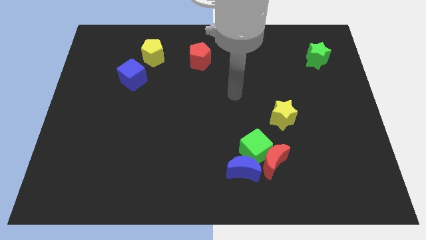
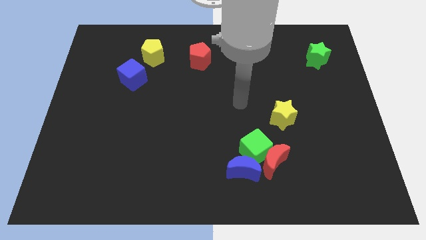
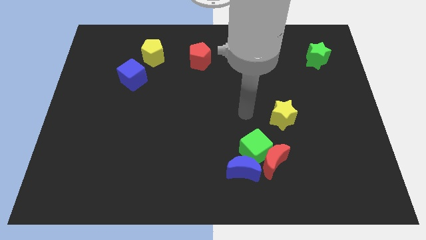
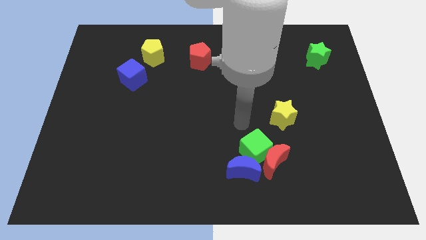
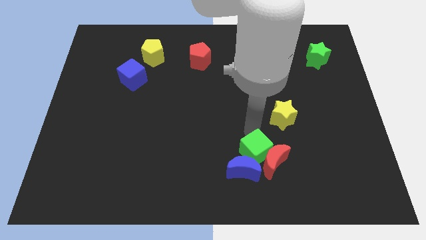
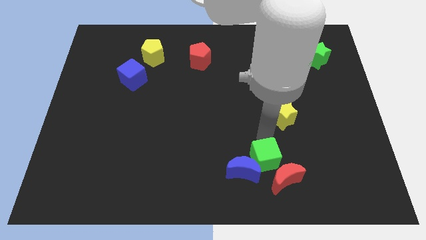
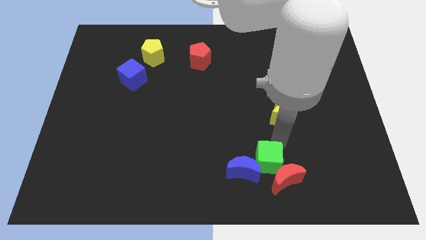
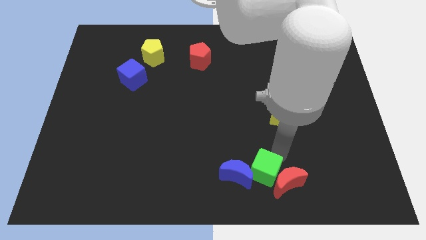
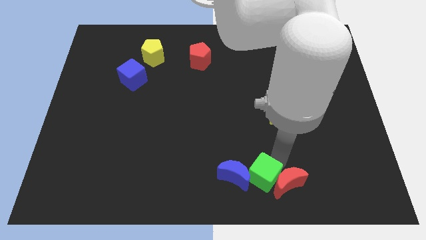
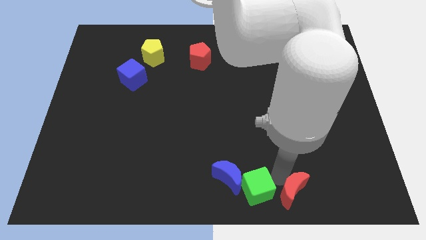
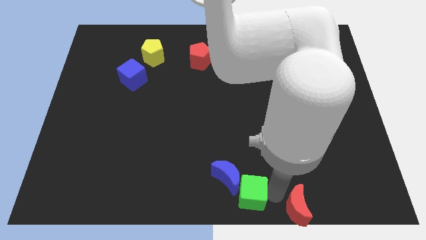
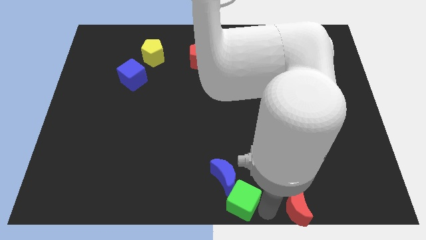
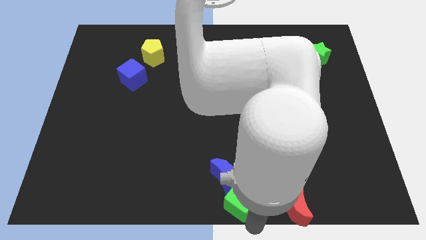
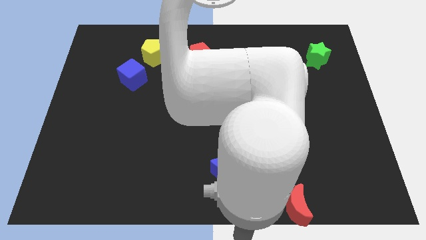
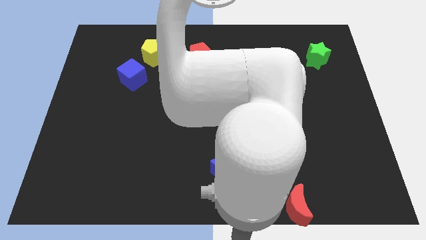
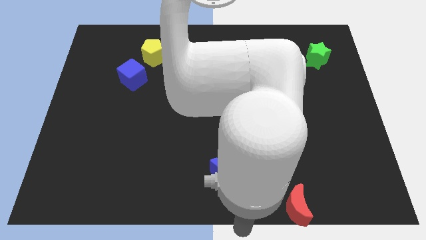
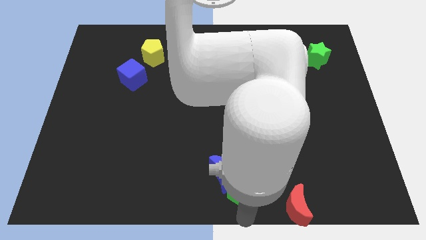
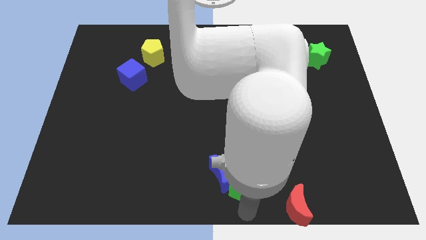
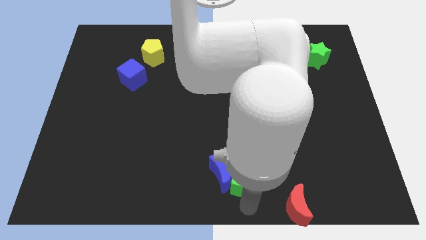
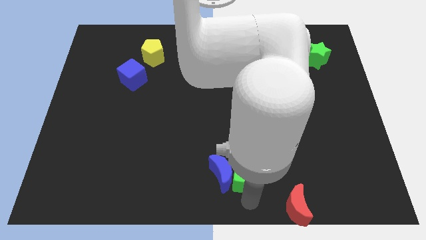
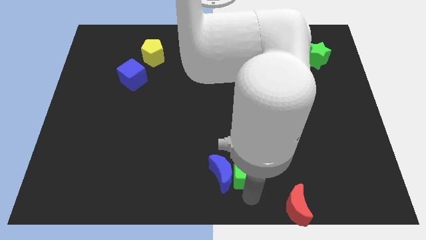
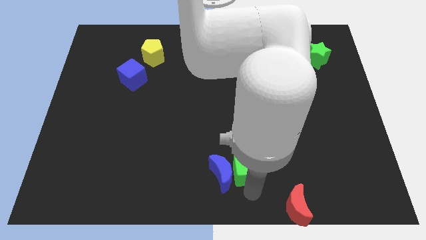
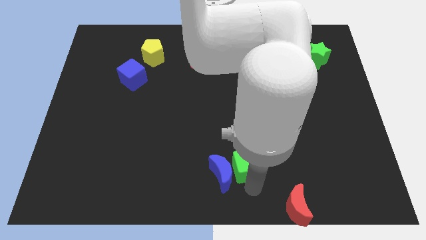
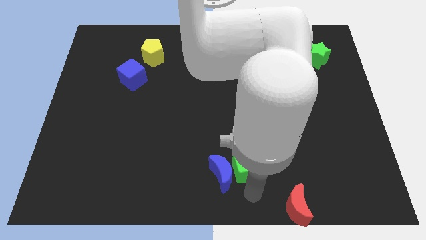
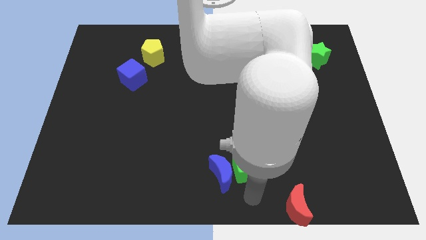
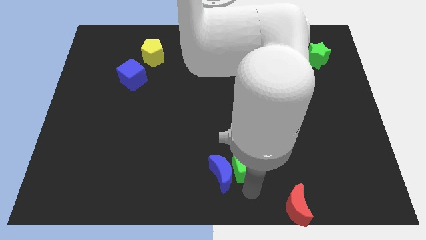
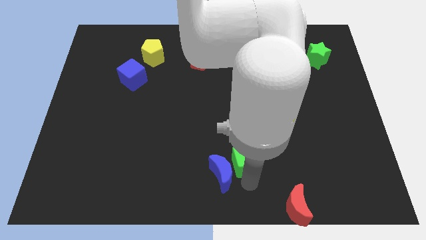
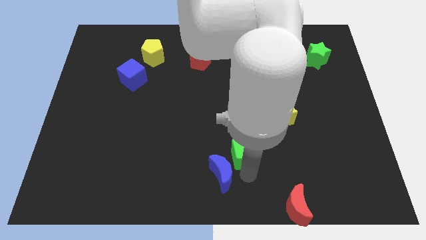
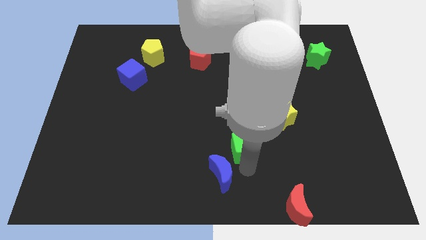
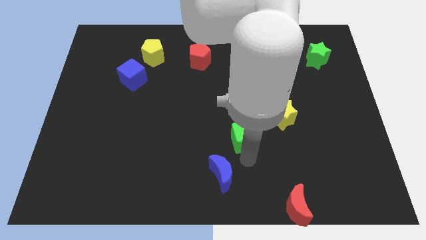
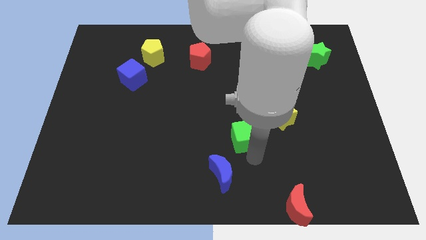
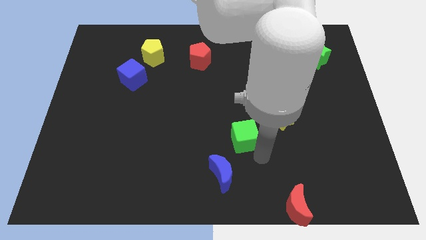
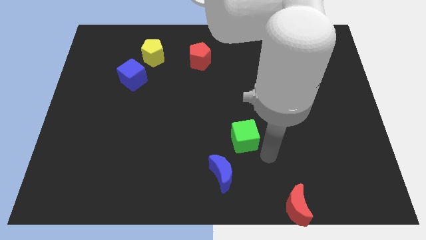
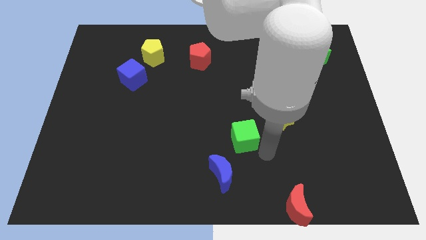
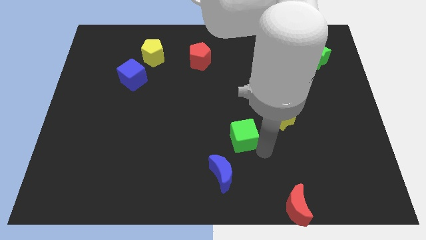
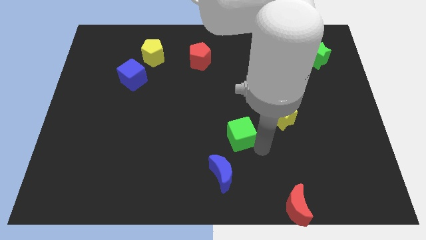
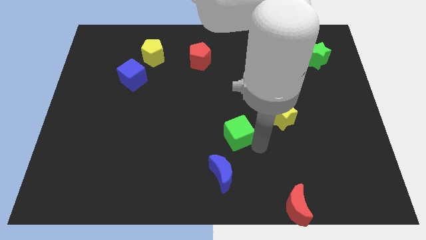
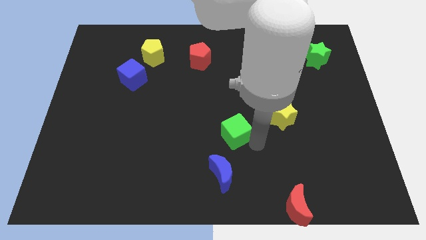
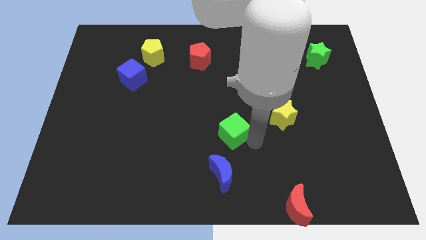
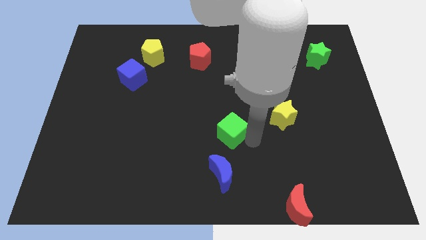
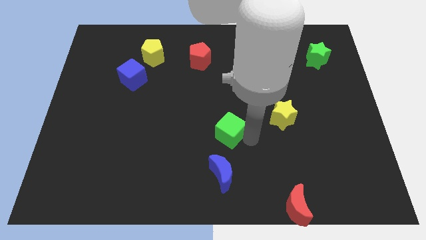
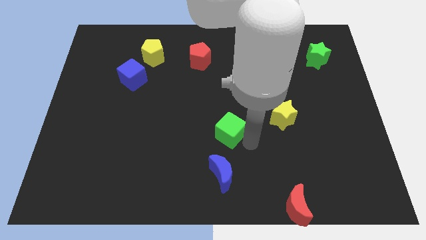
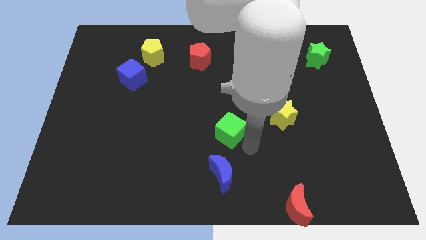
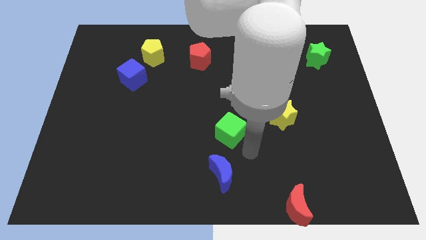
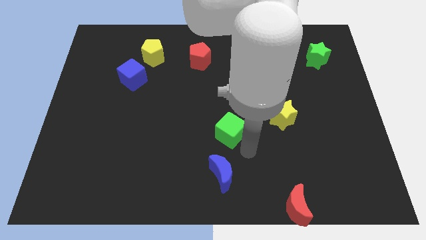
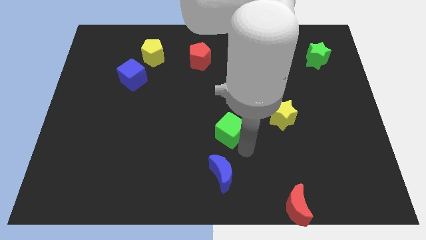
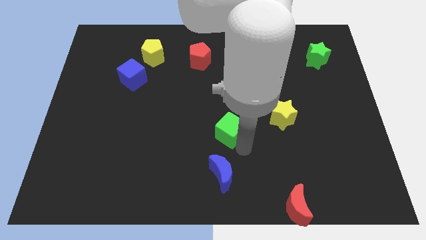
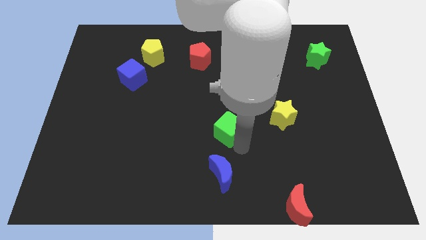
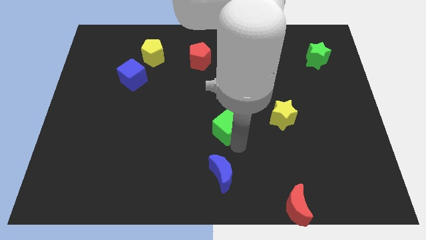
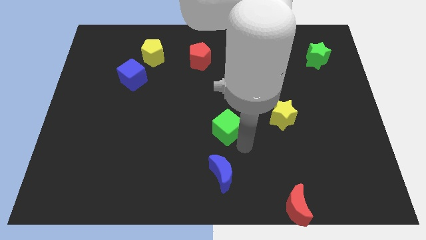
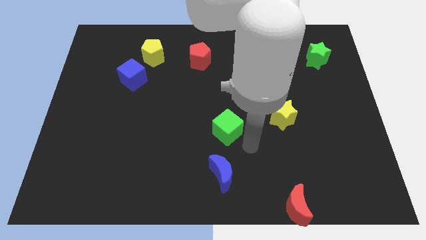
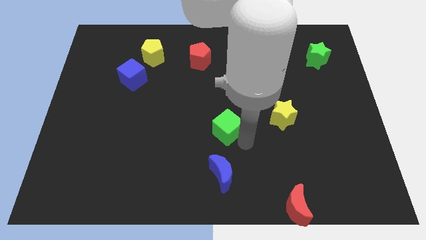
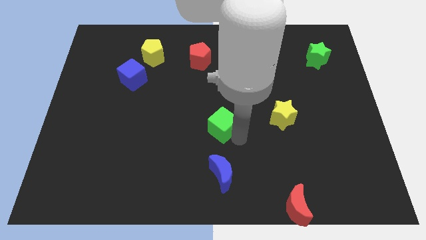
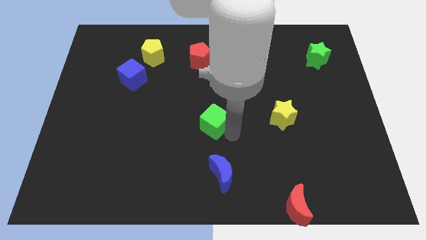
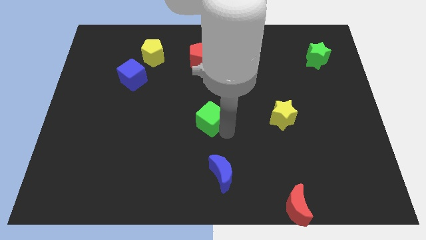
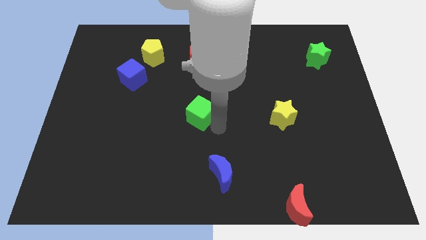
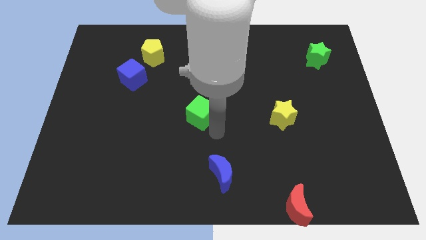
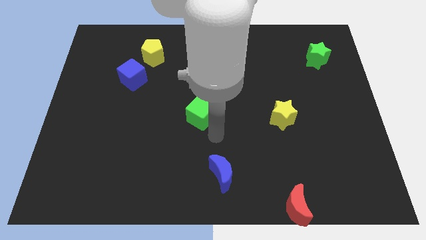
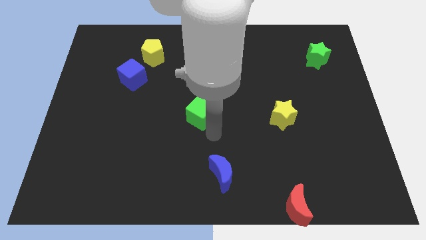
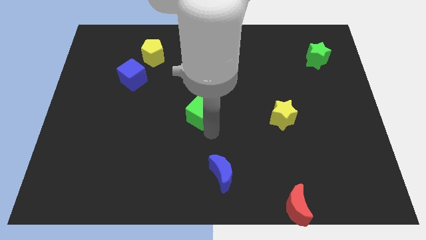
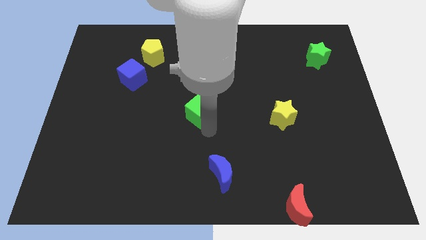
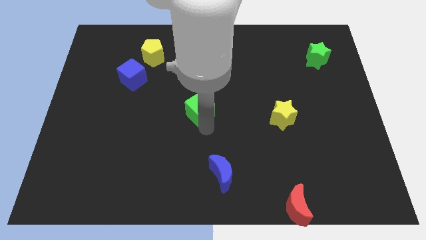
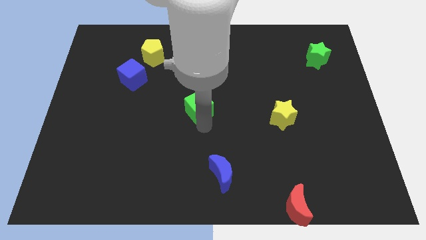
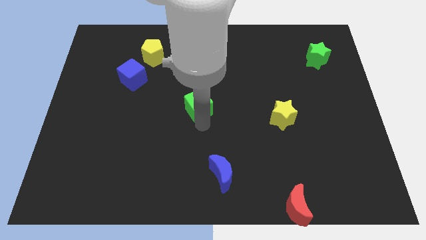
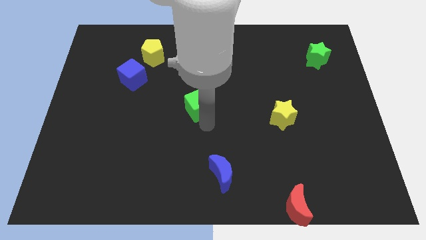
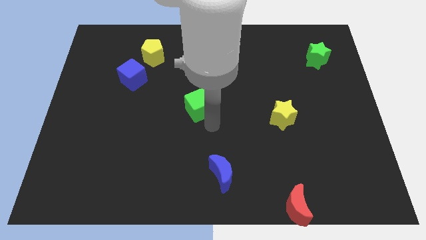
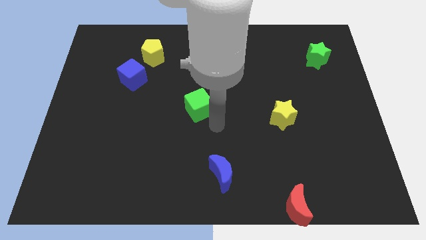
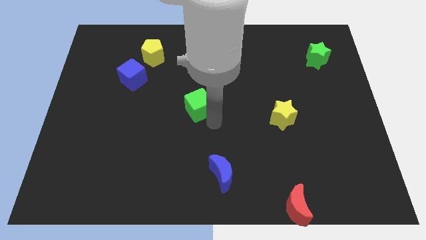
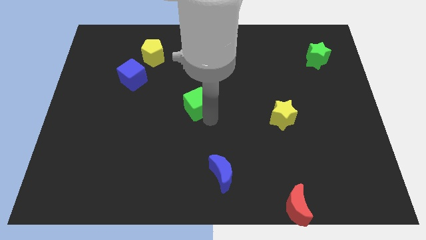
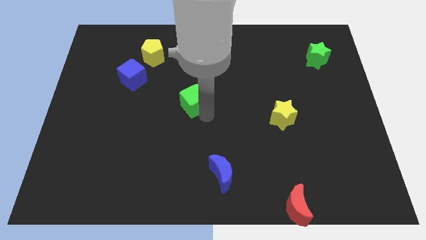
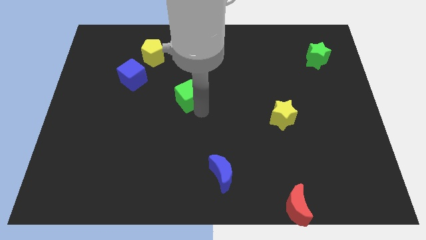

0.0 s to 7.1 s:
slide the green cube upwards and to the left diagonally

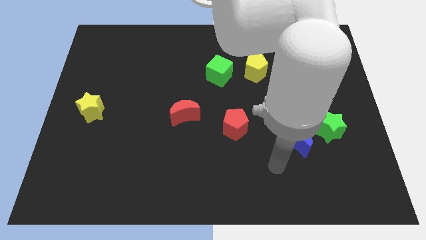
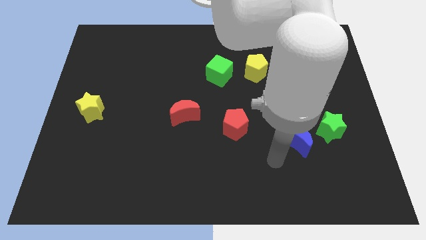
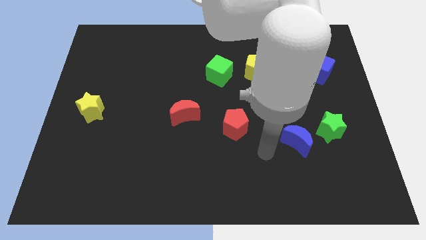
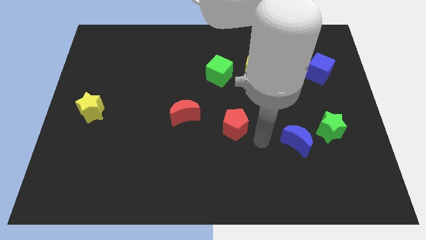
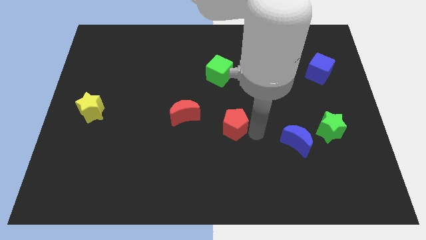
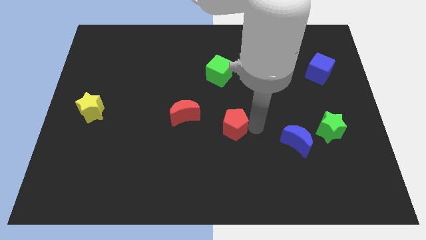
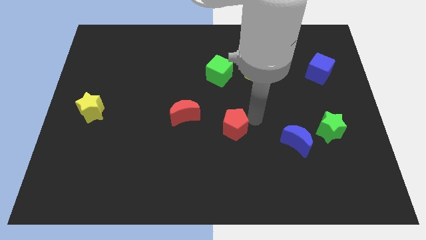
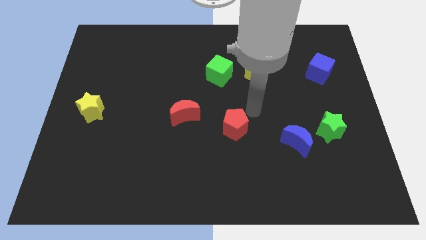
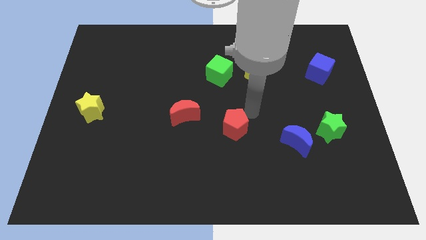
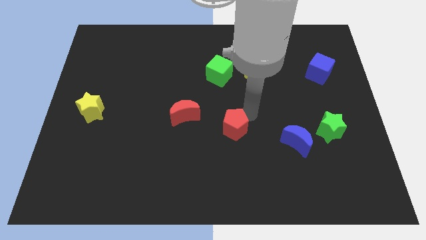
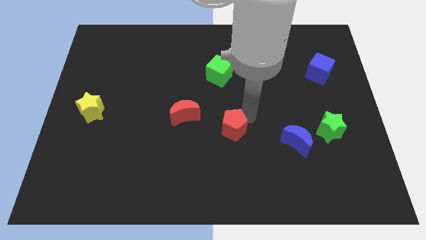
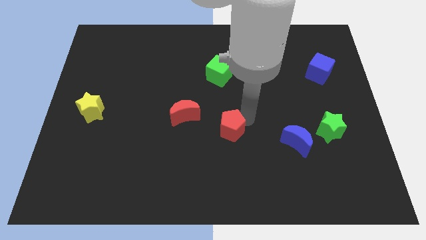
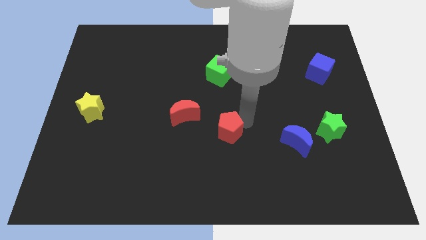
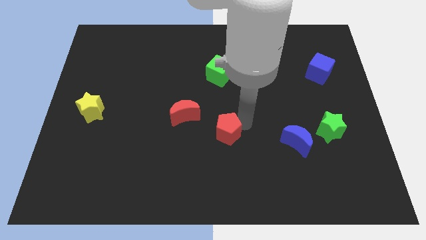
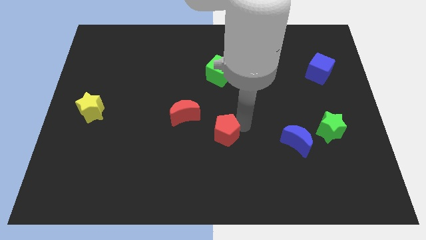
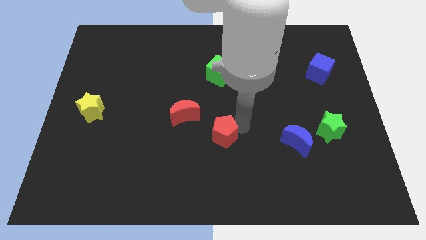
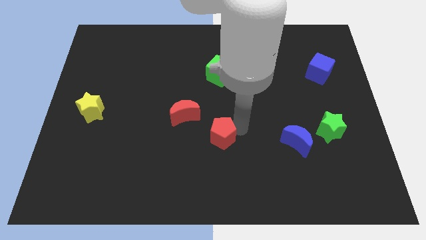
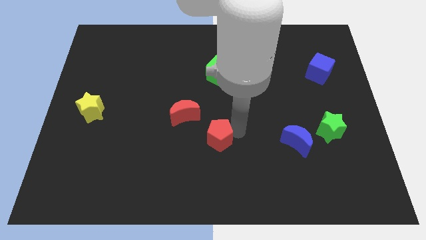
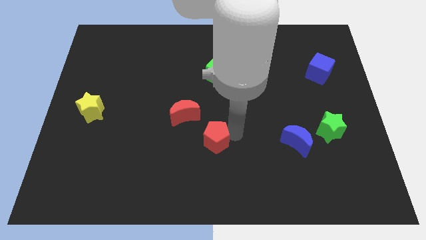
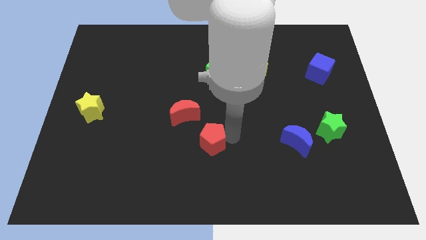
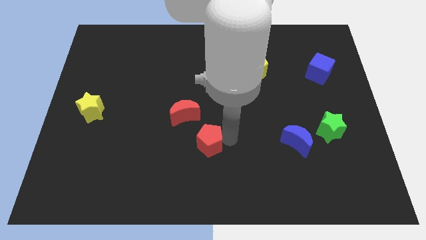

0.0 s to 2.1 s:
move the red pentagon down and left a bit
